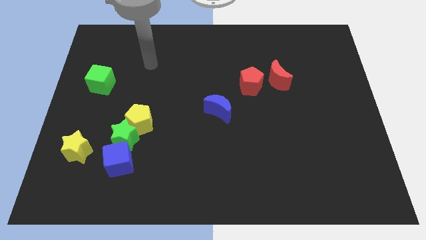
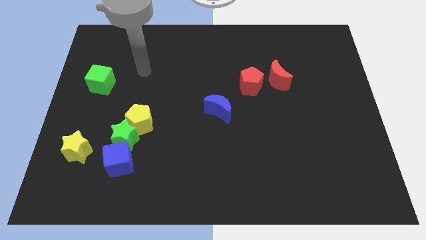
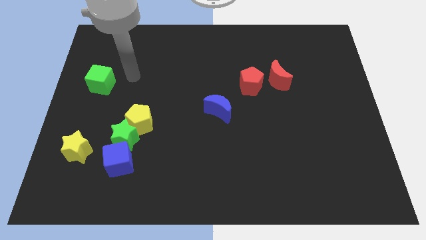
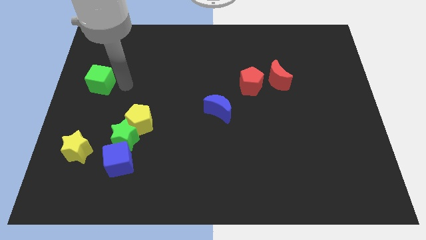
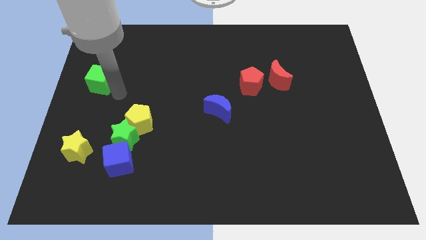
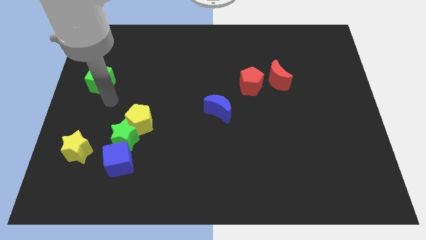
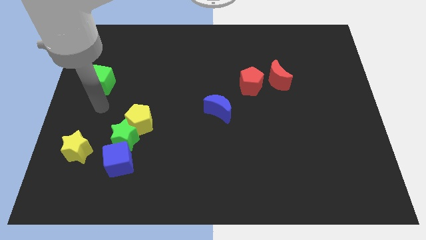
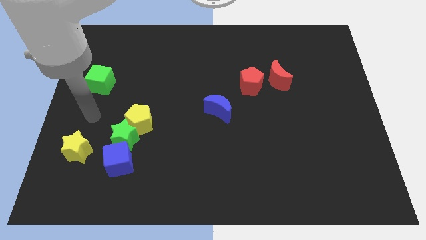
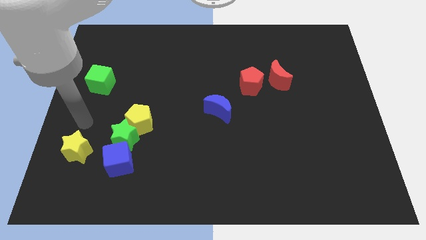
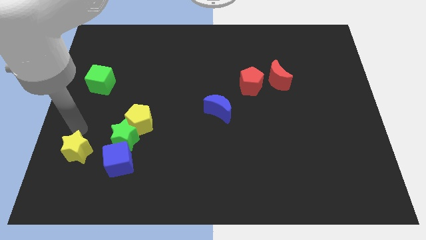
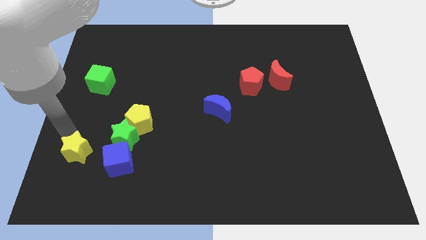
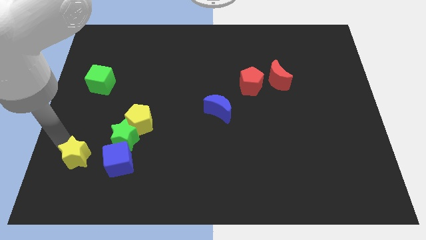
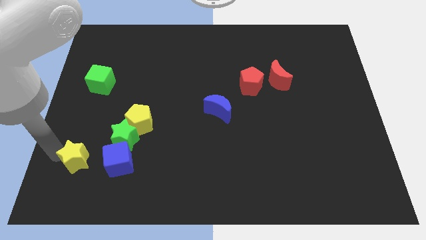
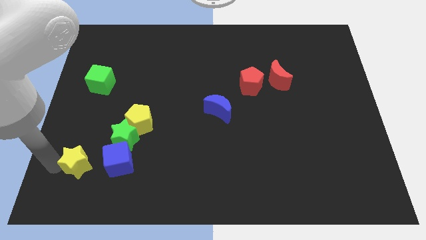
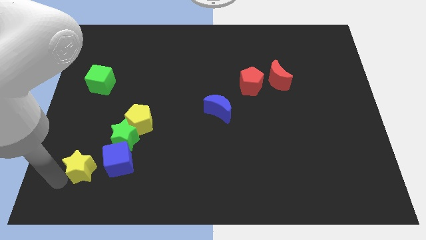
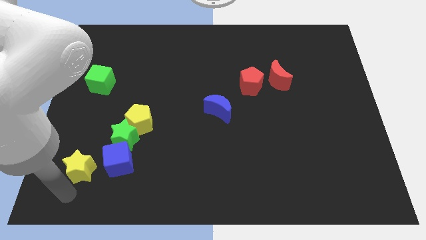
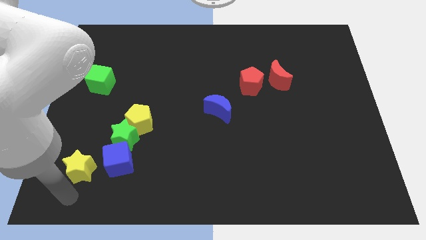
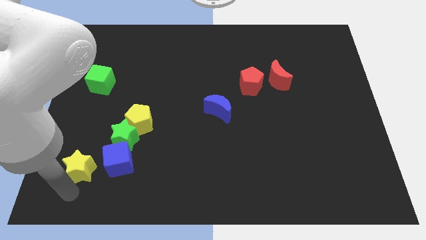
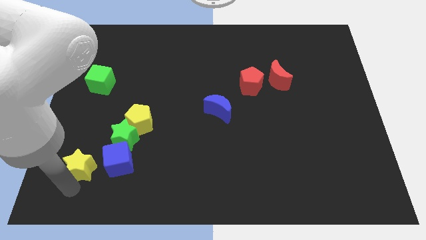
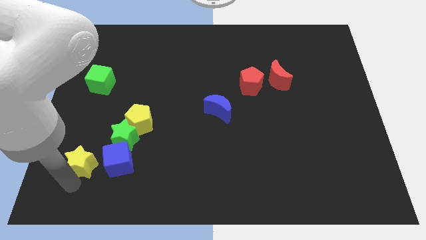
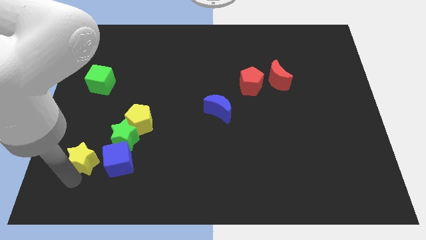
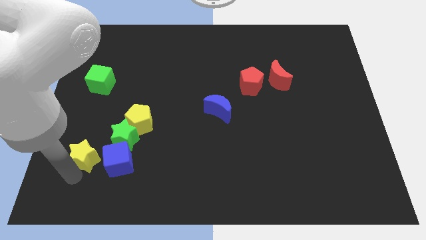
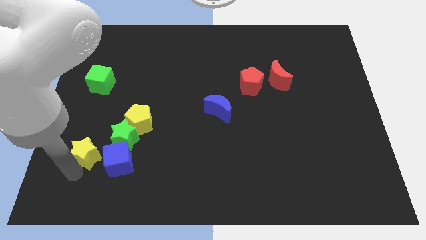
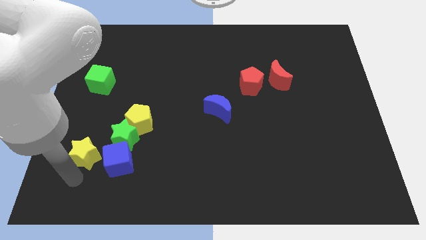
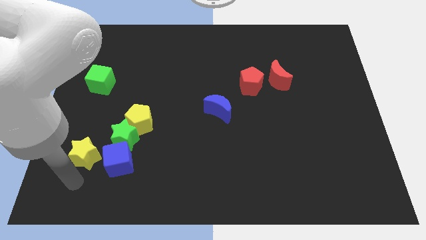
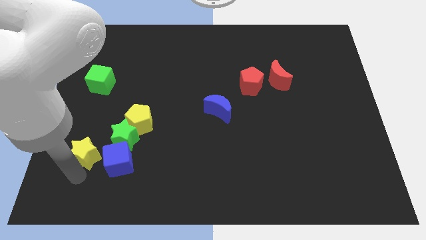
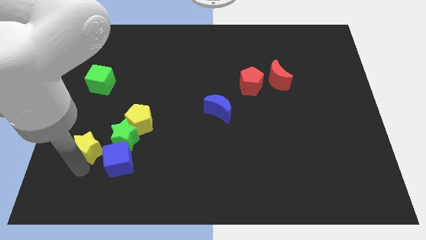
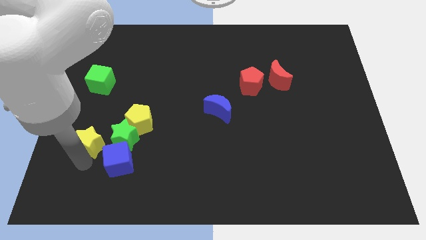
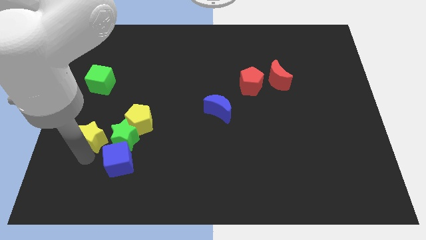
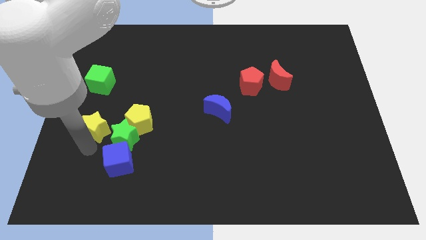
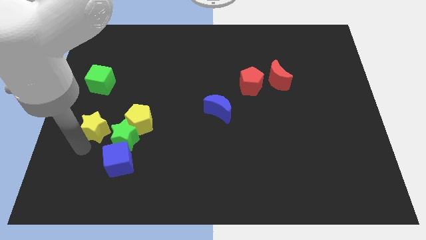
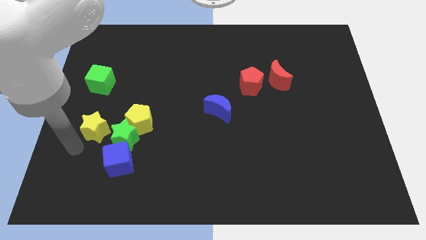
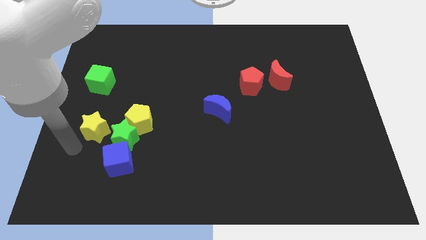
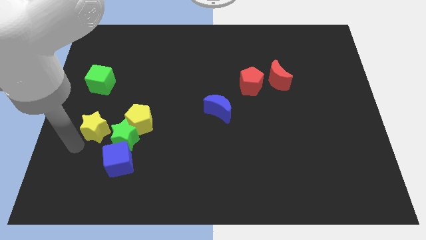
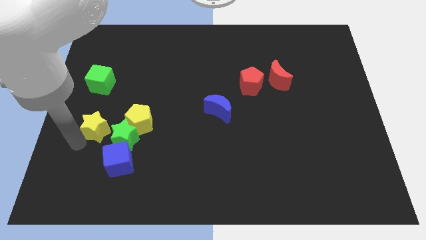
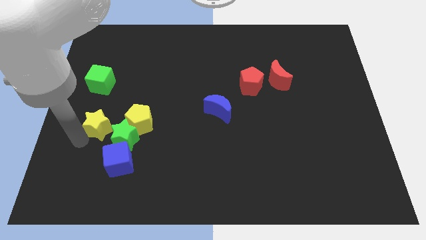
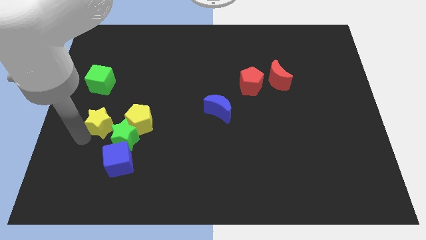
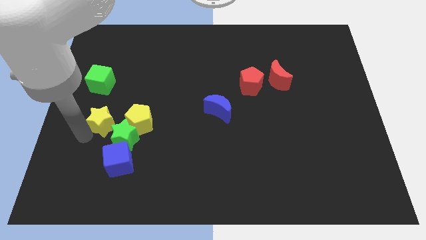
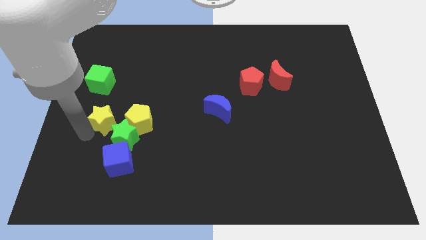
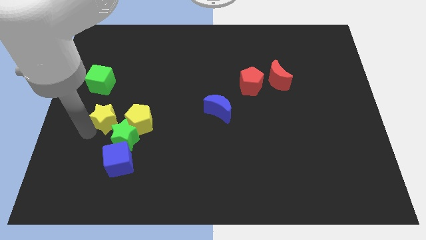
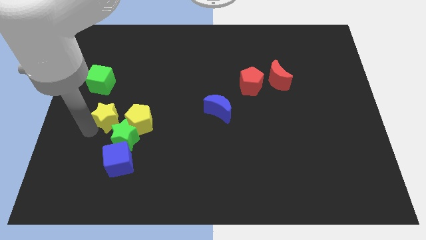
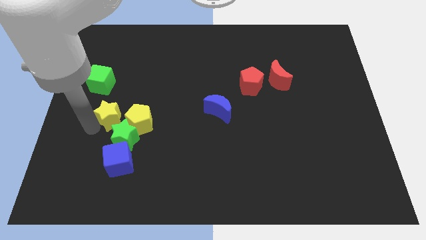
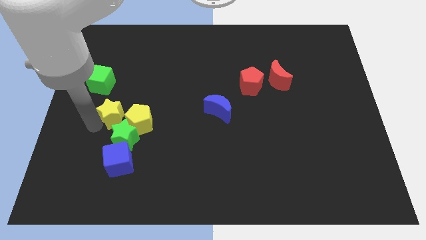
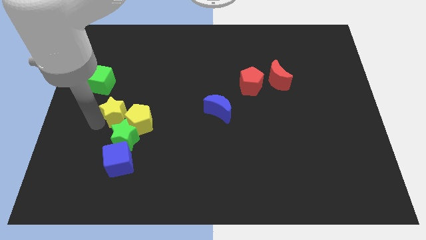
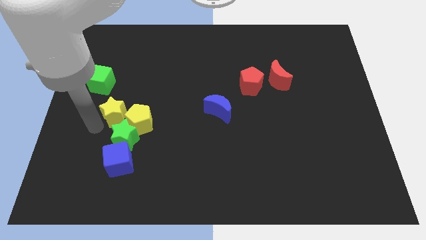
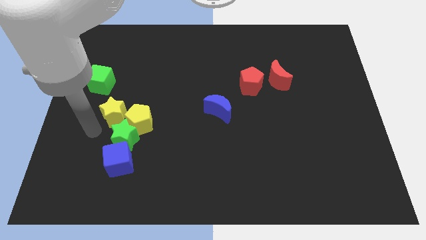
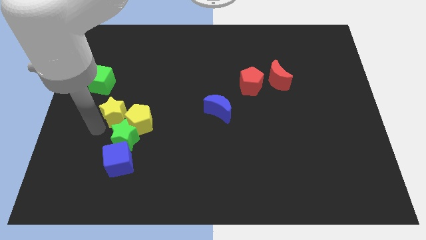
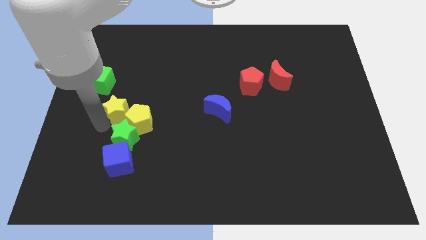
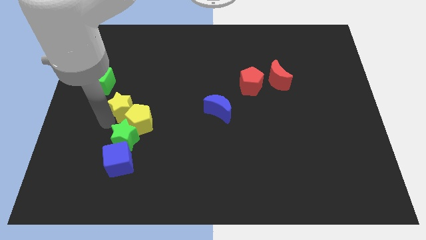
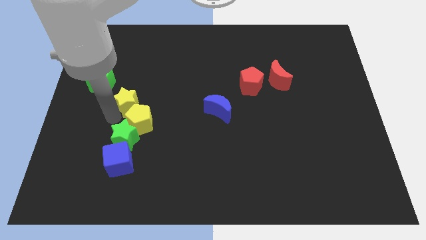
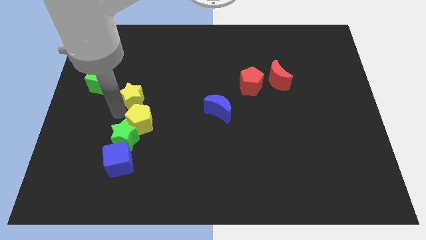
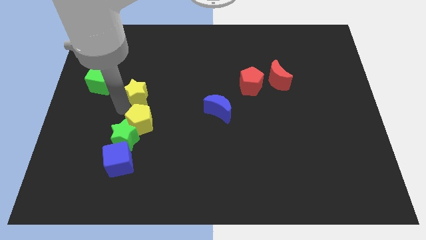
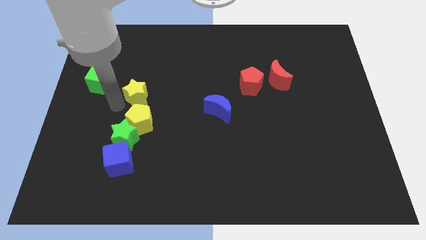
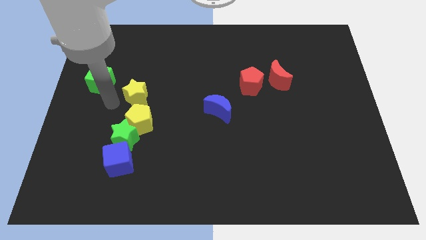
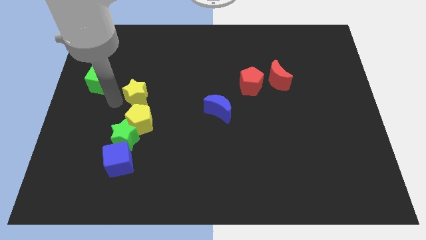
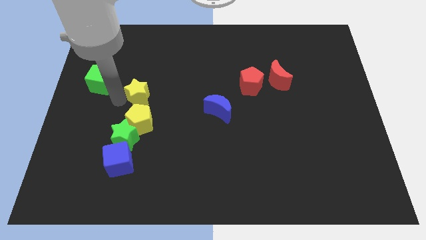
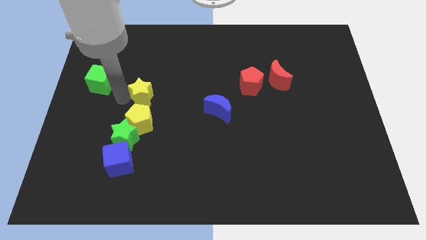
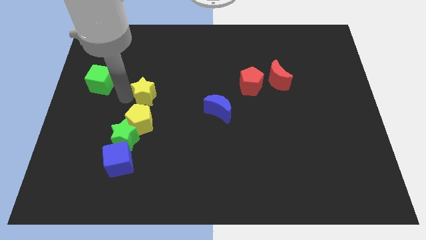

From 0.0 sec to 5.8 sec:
slide the yellow star diagonally upwards and to the right

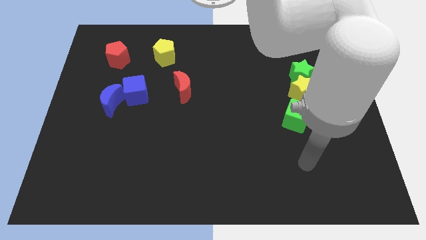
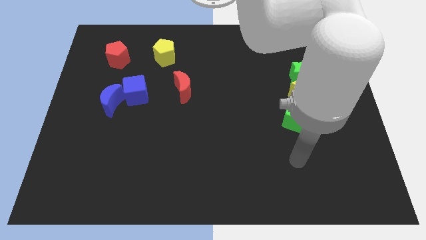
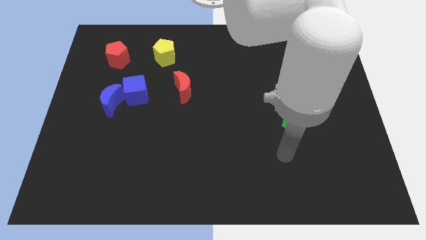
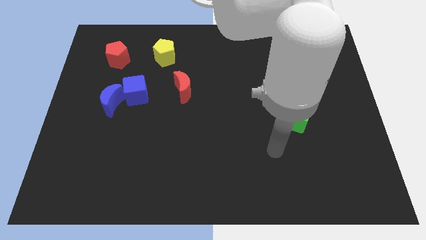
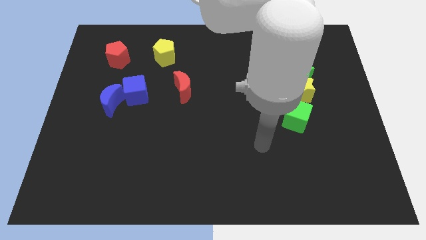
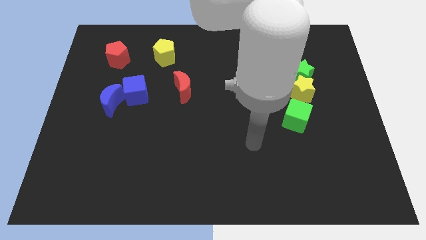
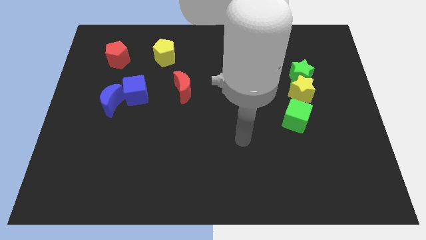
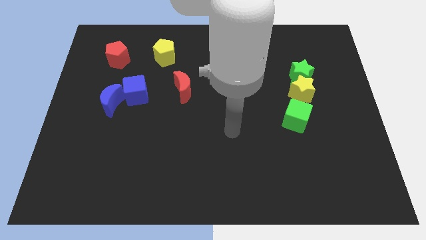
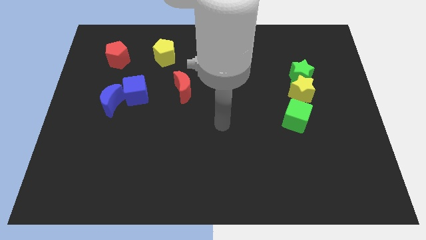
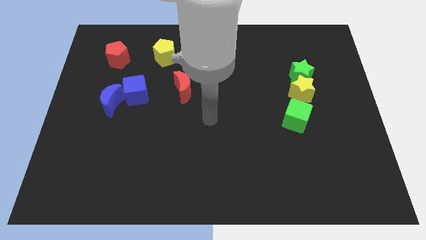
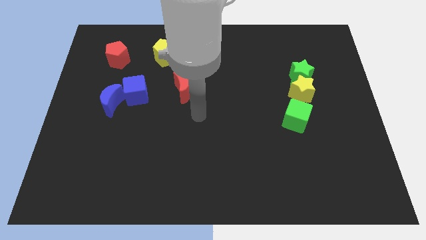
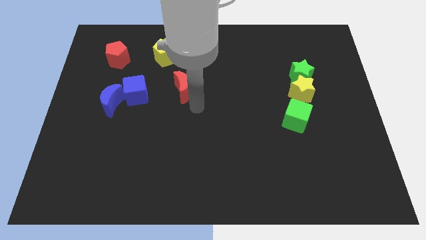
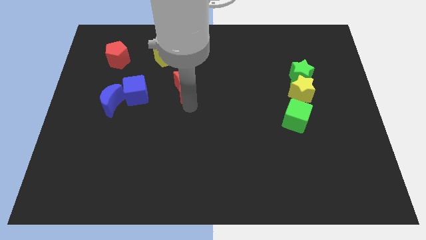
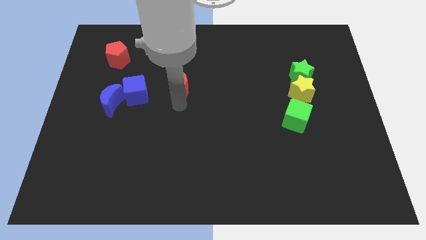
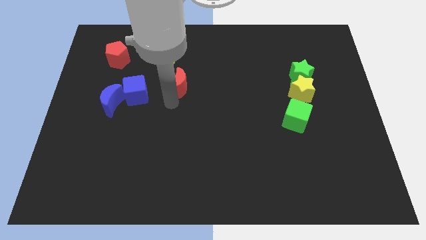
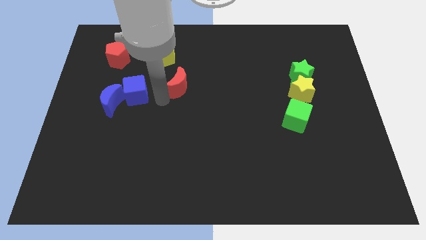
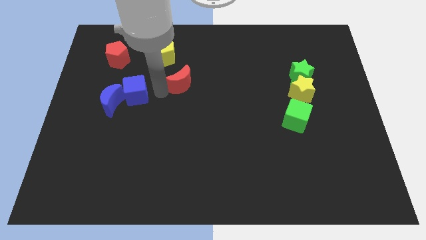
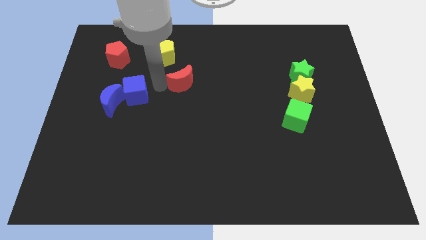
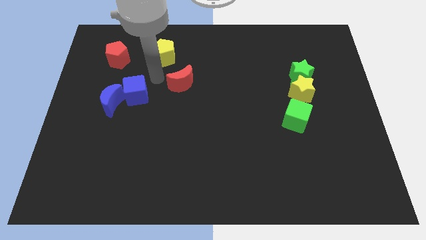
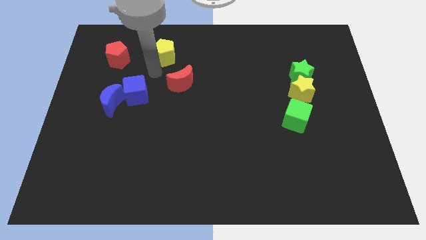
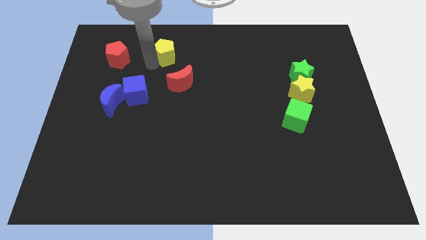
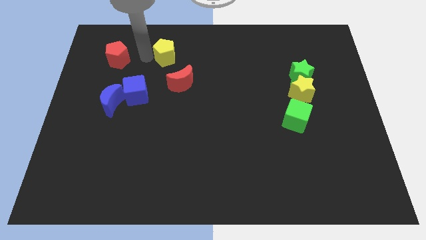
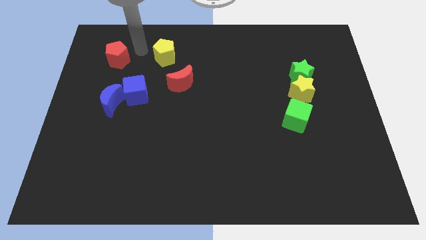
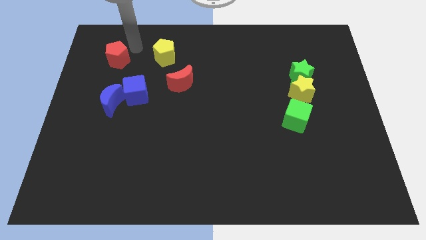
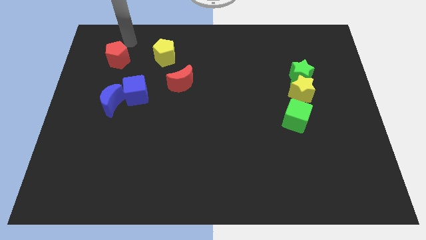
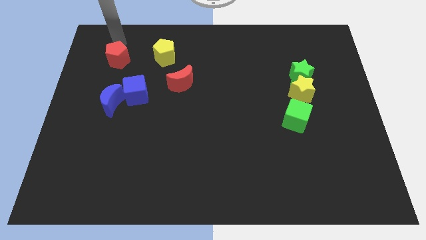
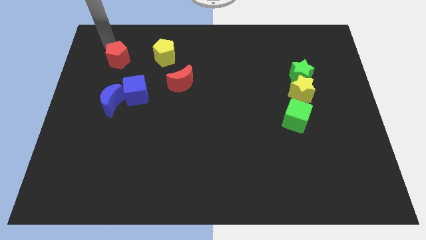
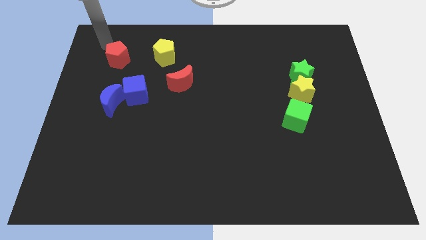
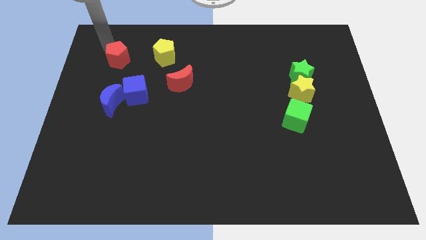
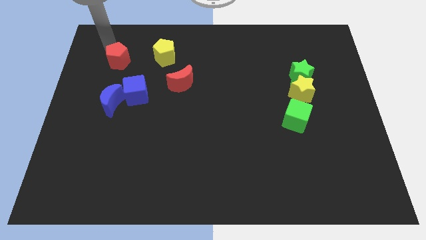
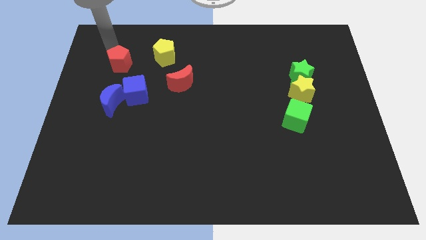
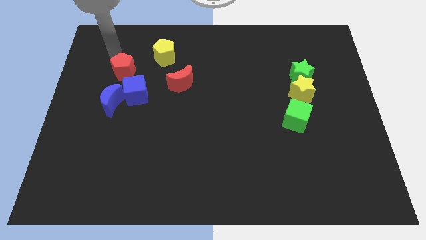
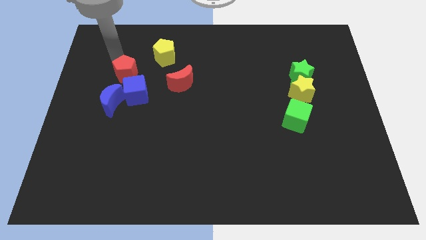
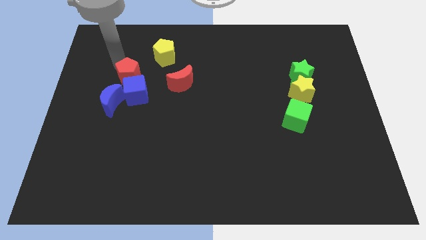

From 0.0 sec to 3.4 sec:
move the red pentagon somewhat down and right
